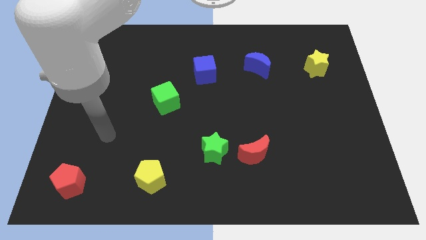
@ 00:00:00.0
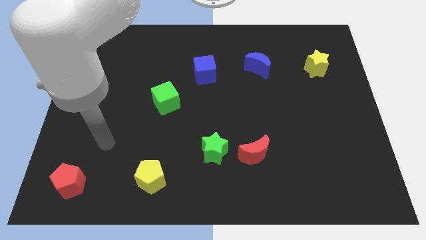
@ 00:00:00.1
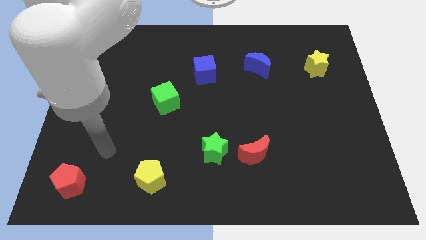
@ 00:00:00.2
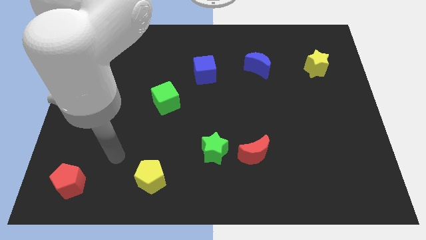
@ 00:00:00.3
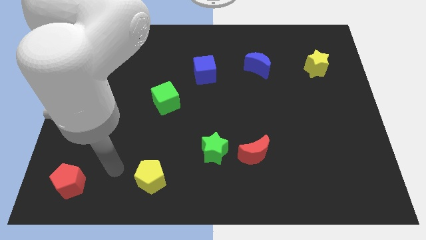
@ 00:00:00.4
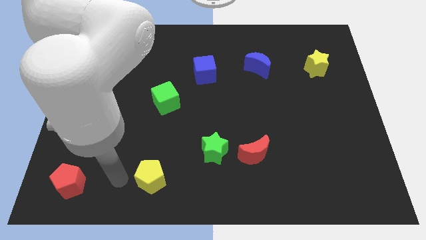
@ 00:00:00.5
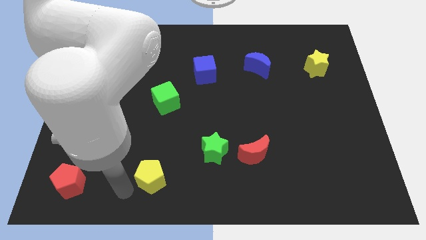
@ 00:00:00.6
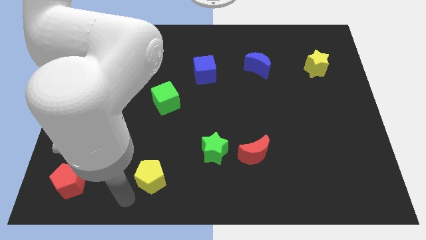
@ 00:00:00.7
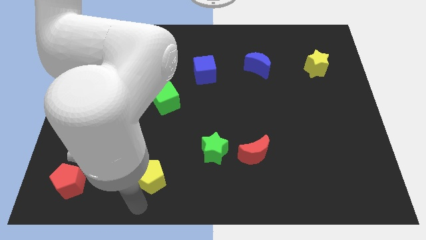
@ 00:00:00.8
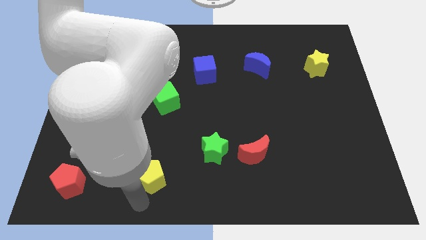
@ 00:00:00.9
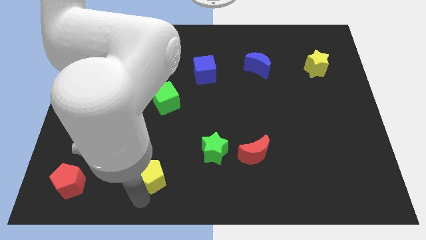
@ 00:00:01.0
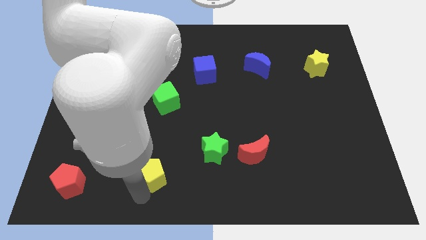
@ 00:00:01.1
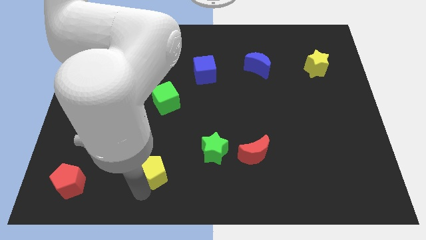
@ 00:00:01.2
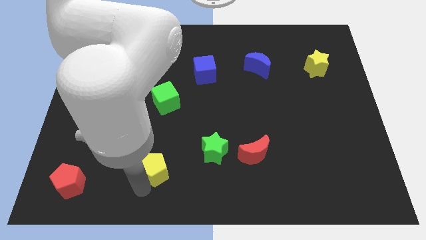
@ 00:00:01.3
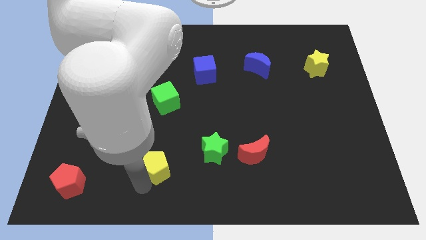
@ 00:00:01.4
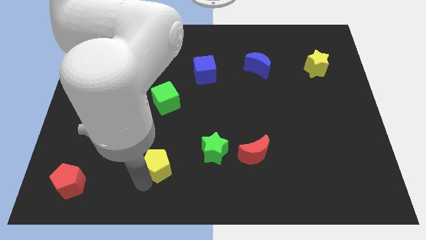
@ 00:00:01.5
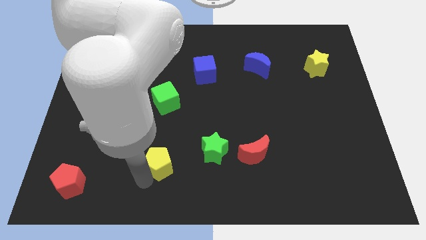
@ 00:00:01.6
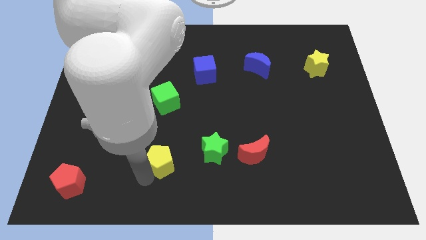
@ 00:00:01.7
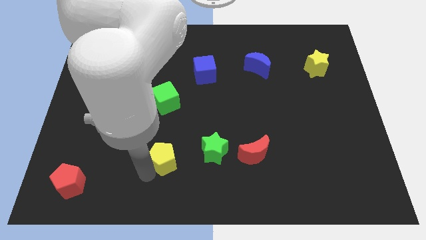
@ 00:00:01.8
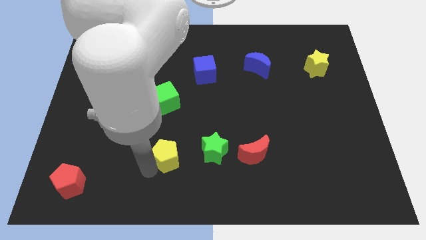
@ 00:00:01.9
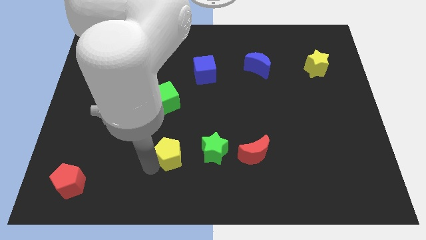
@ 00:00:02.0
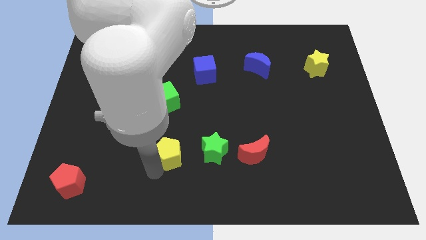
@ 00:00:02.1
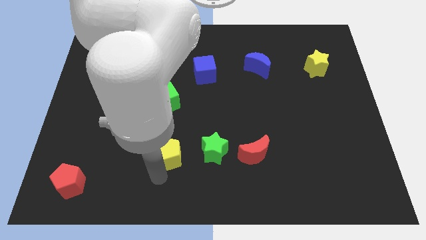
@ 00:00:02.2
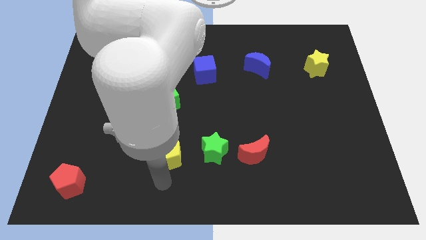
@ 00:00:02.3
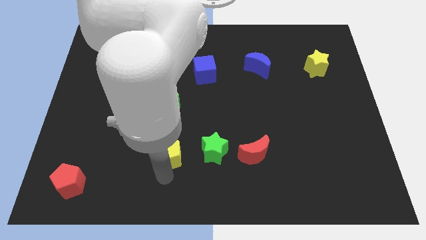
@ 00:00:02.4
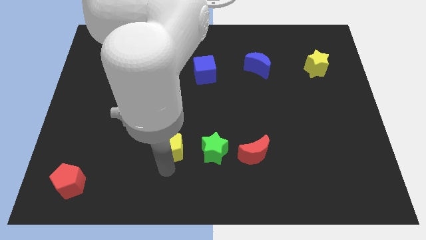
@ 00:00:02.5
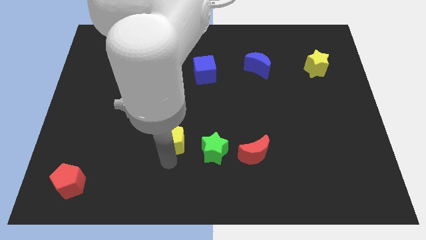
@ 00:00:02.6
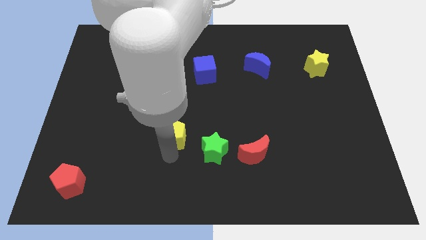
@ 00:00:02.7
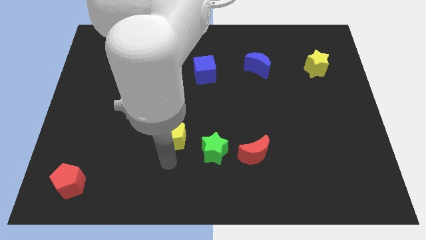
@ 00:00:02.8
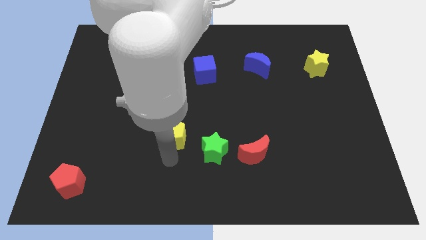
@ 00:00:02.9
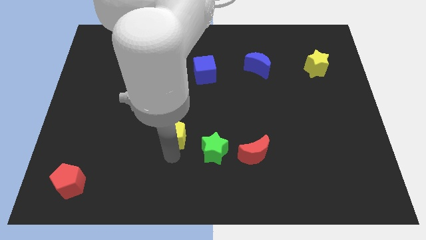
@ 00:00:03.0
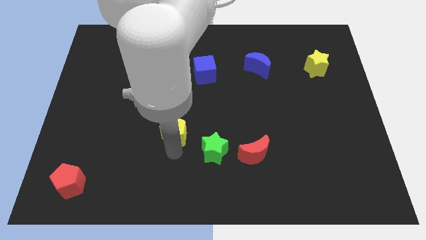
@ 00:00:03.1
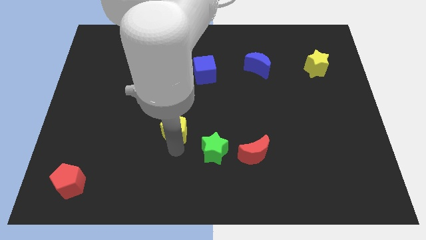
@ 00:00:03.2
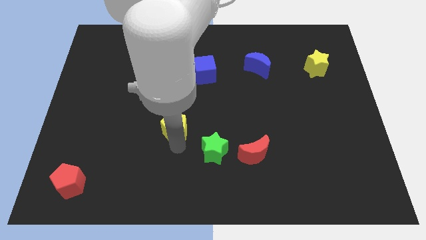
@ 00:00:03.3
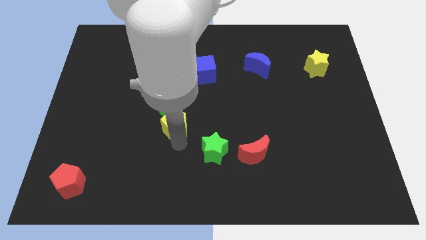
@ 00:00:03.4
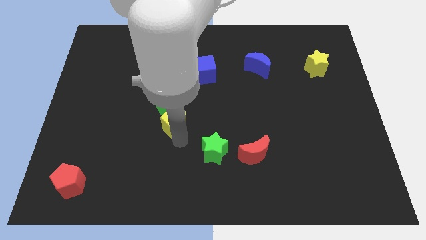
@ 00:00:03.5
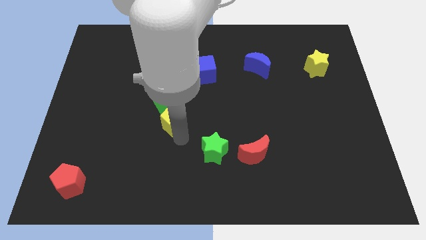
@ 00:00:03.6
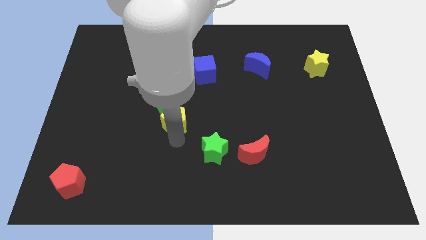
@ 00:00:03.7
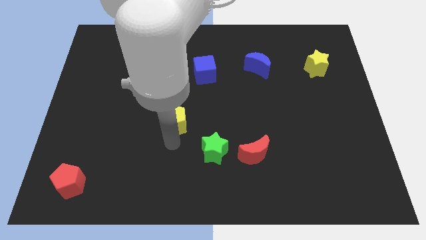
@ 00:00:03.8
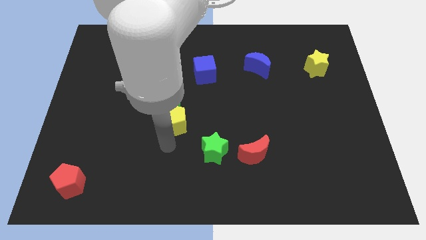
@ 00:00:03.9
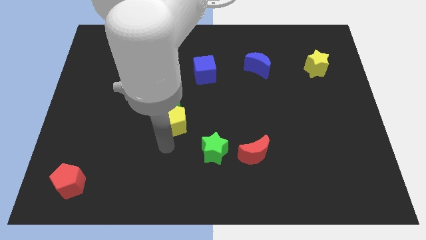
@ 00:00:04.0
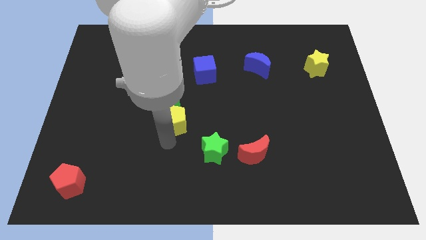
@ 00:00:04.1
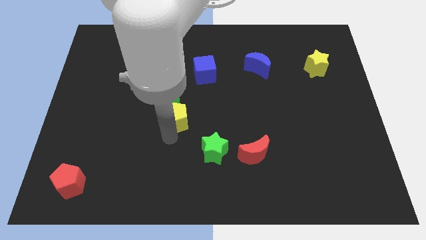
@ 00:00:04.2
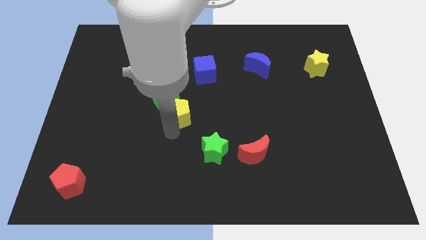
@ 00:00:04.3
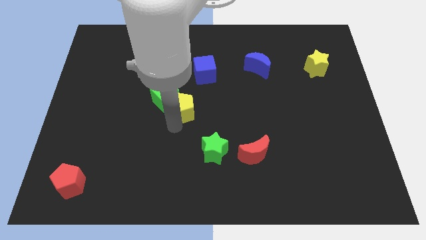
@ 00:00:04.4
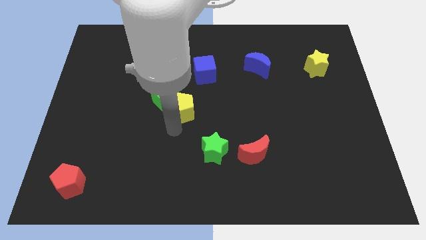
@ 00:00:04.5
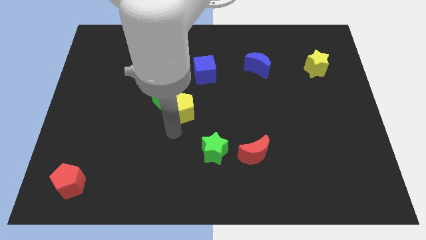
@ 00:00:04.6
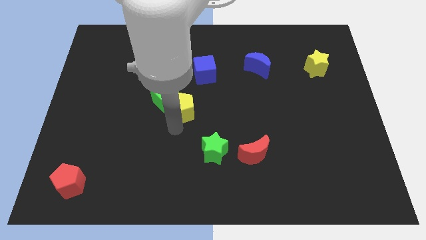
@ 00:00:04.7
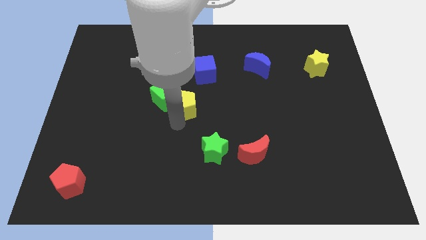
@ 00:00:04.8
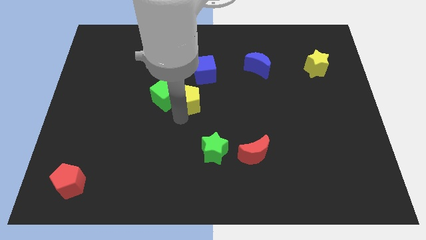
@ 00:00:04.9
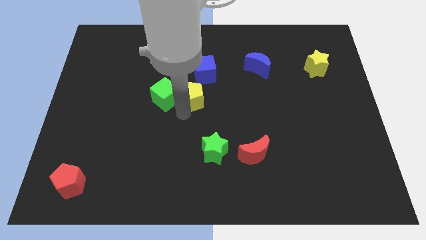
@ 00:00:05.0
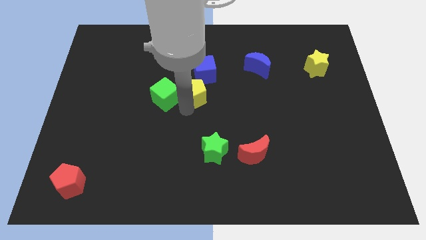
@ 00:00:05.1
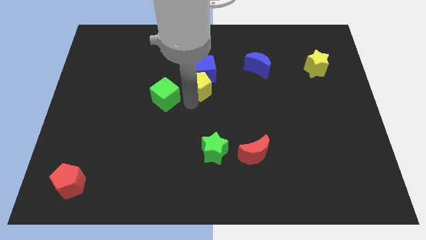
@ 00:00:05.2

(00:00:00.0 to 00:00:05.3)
move the yellow pentagon close to the blue cube

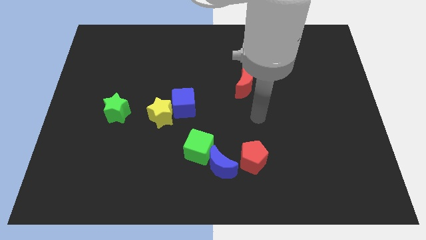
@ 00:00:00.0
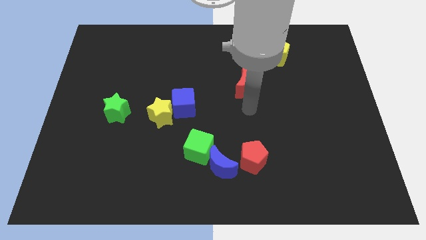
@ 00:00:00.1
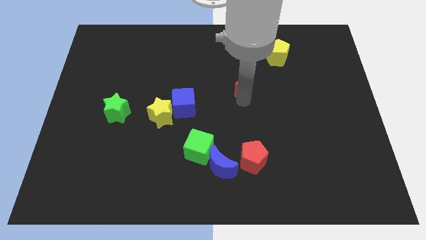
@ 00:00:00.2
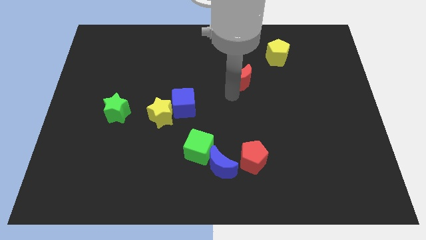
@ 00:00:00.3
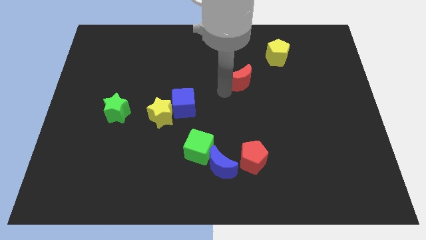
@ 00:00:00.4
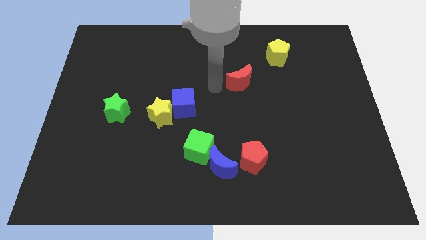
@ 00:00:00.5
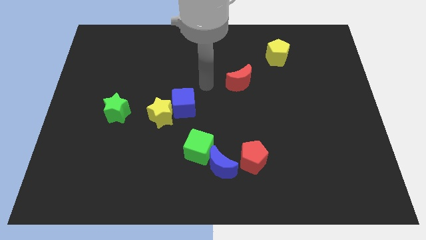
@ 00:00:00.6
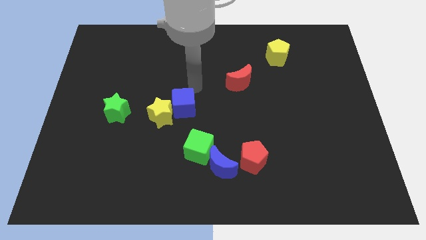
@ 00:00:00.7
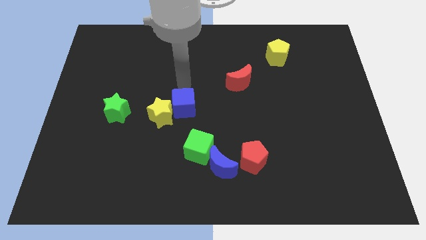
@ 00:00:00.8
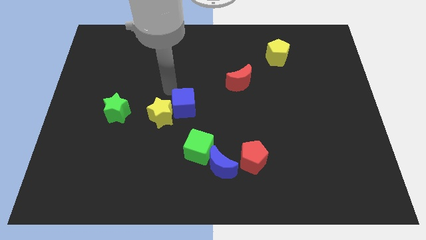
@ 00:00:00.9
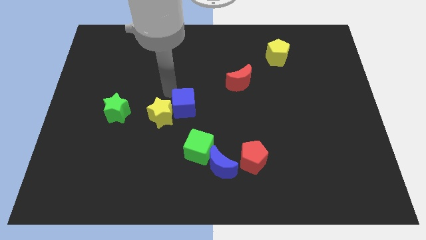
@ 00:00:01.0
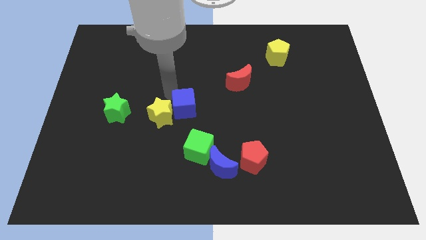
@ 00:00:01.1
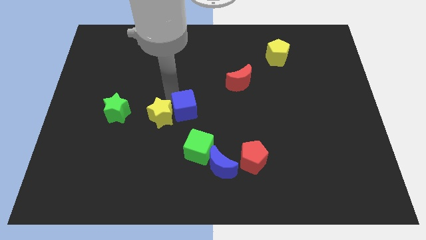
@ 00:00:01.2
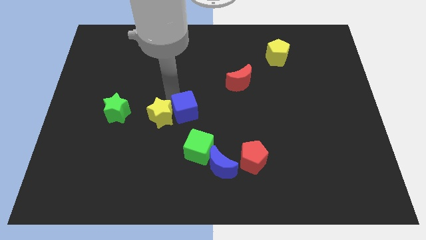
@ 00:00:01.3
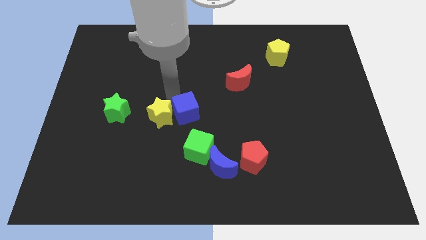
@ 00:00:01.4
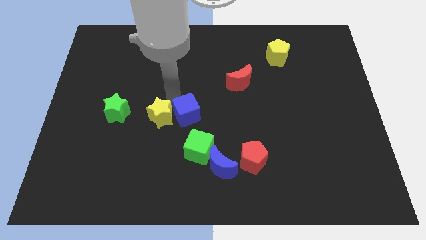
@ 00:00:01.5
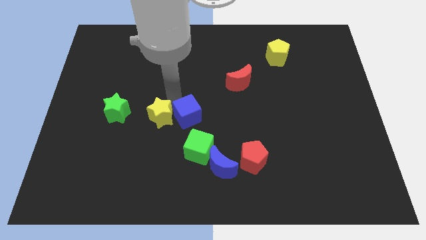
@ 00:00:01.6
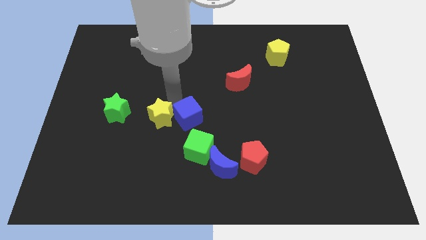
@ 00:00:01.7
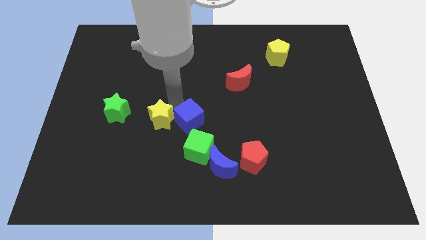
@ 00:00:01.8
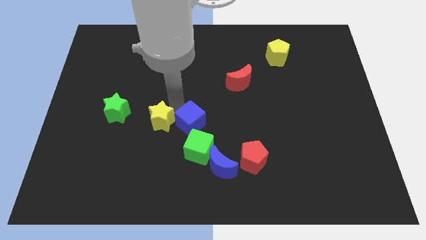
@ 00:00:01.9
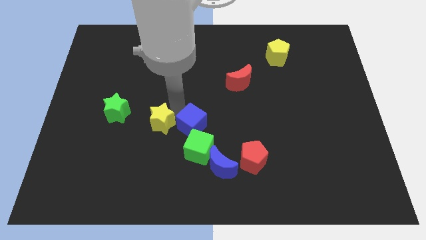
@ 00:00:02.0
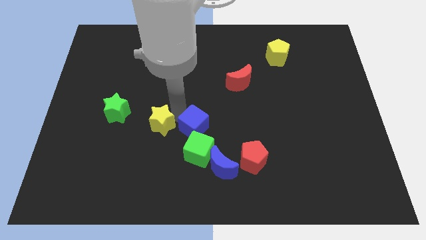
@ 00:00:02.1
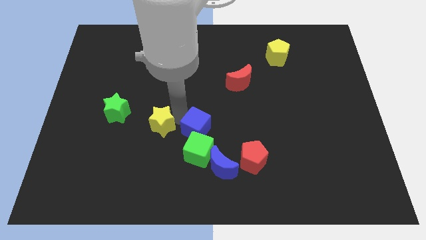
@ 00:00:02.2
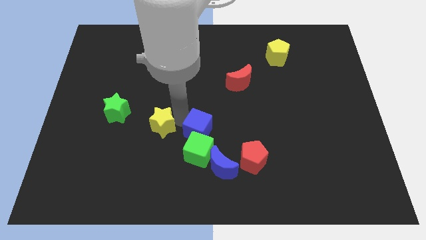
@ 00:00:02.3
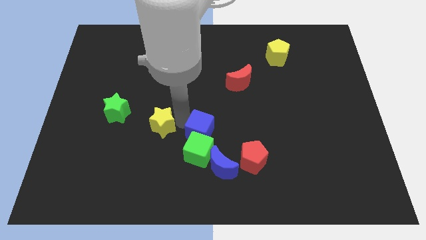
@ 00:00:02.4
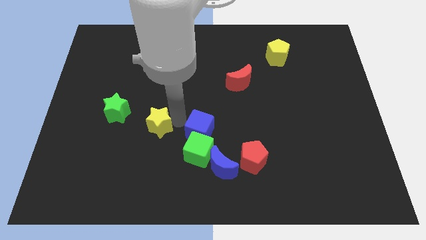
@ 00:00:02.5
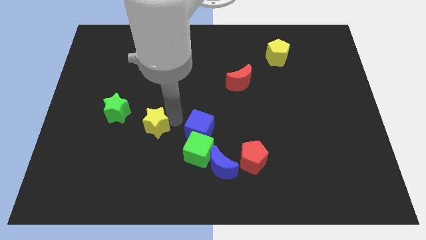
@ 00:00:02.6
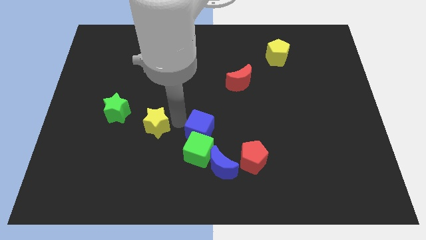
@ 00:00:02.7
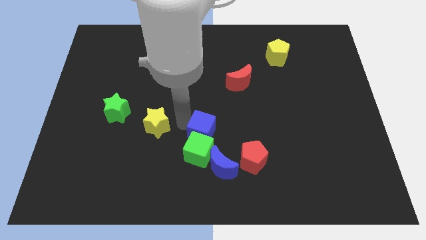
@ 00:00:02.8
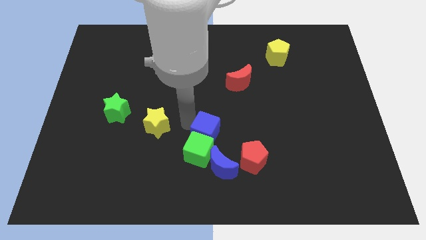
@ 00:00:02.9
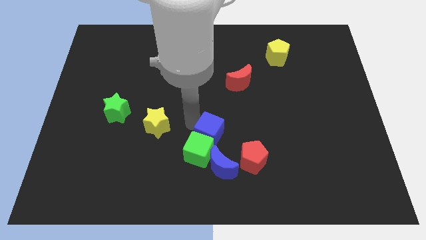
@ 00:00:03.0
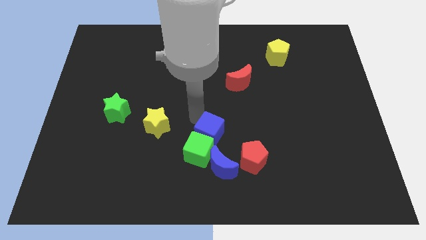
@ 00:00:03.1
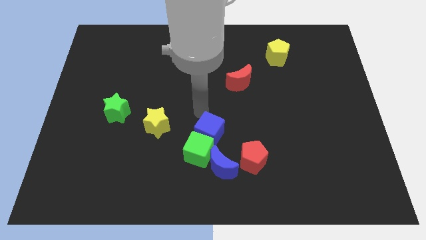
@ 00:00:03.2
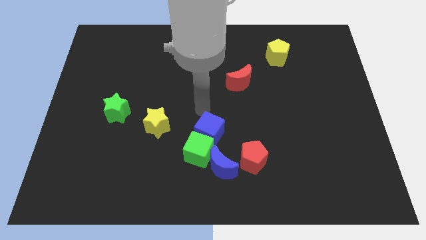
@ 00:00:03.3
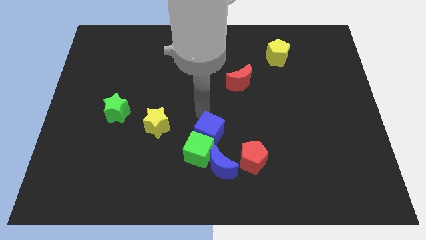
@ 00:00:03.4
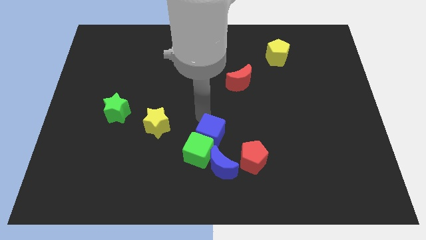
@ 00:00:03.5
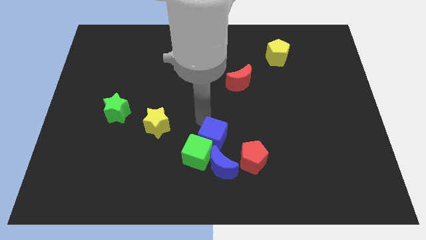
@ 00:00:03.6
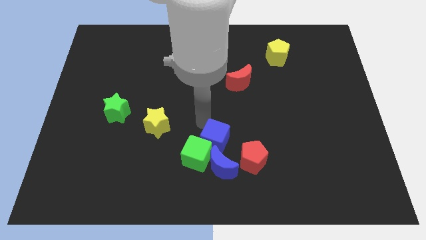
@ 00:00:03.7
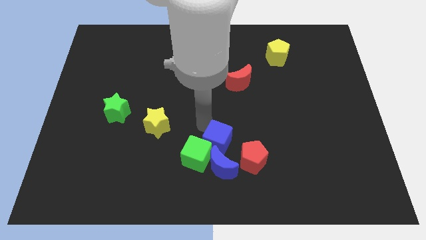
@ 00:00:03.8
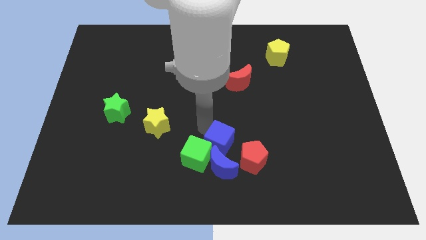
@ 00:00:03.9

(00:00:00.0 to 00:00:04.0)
put the blue cube to the blue moon
